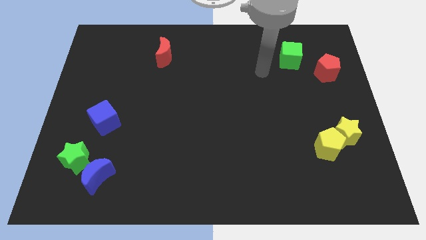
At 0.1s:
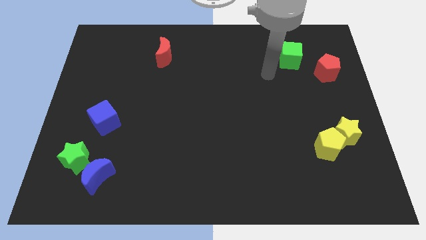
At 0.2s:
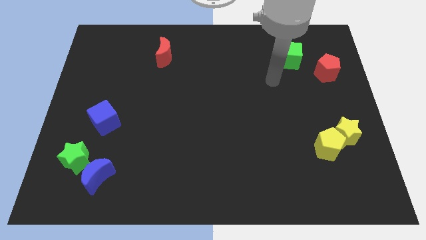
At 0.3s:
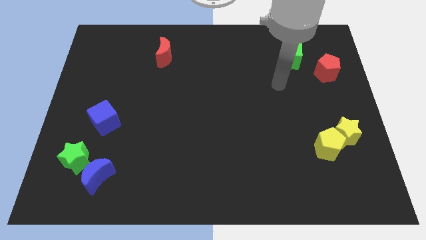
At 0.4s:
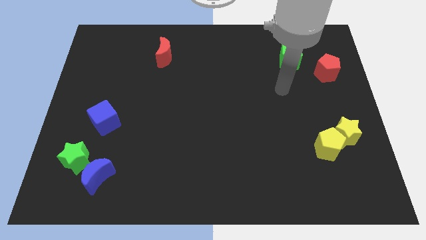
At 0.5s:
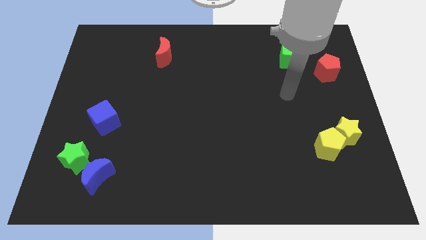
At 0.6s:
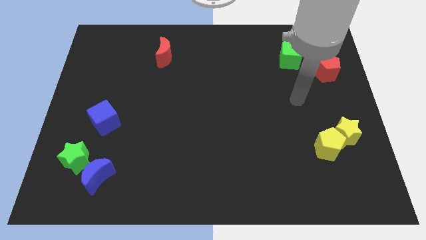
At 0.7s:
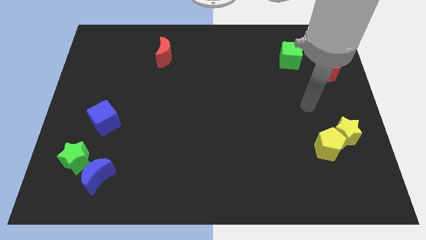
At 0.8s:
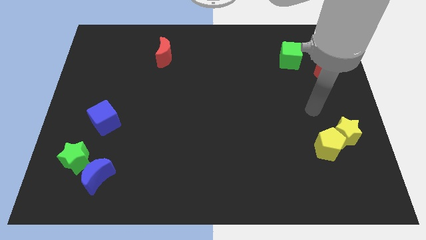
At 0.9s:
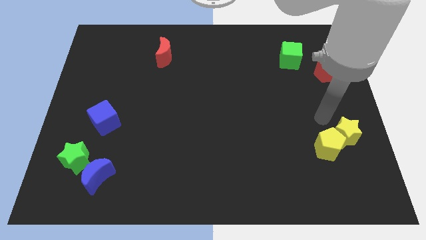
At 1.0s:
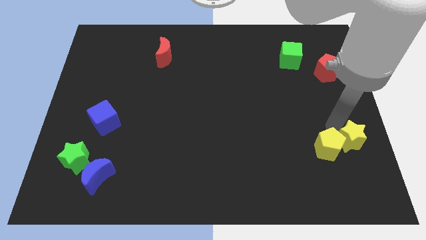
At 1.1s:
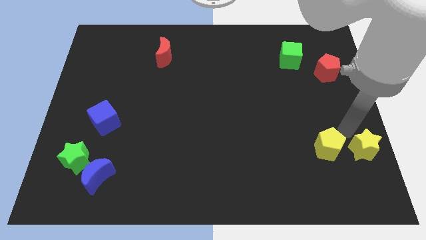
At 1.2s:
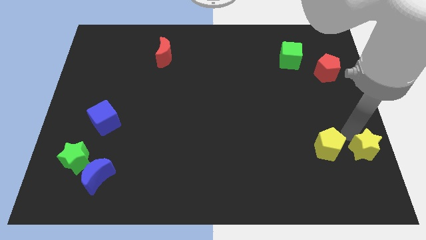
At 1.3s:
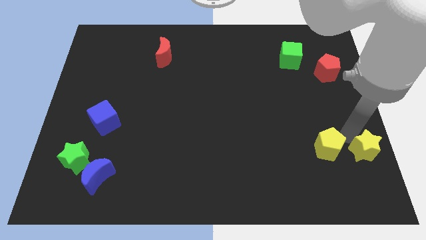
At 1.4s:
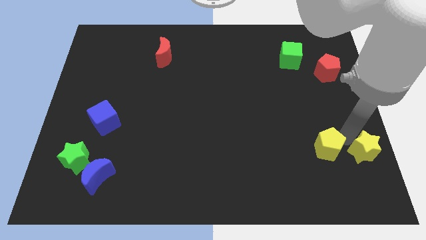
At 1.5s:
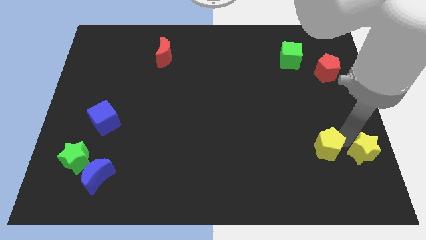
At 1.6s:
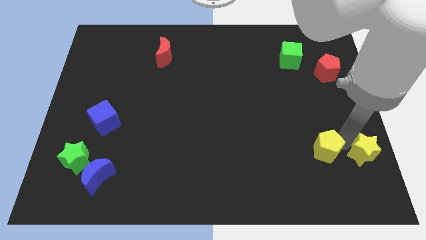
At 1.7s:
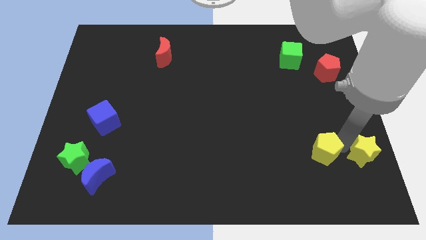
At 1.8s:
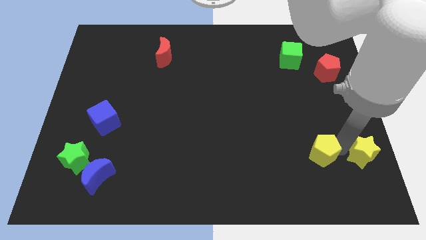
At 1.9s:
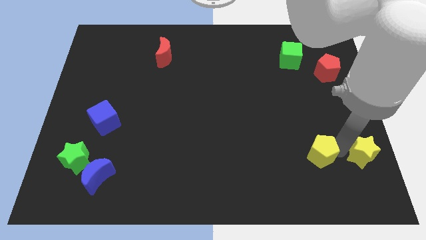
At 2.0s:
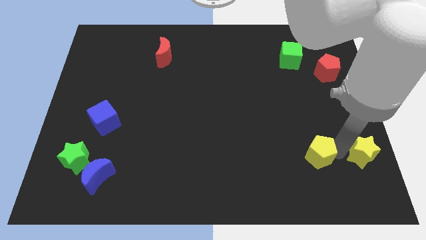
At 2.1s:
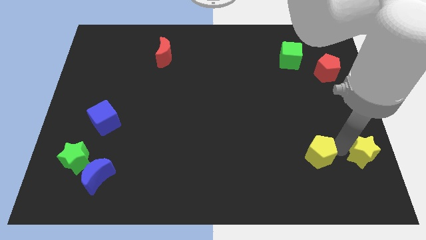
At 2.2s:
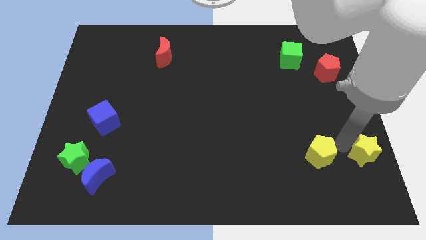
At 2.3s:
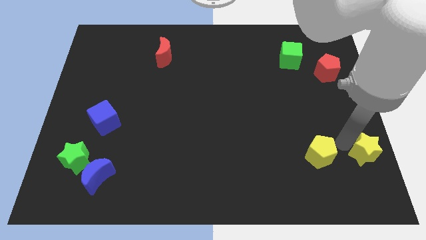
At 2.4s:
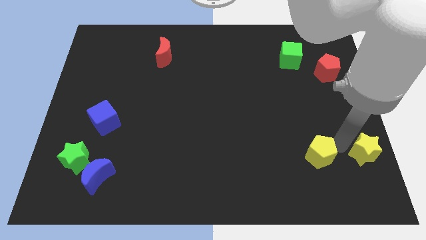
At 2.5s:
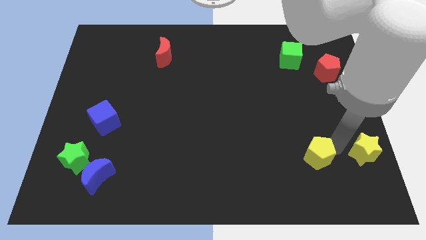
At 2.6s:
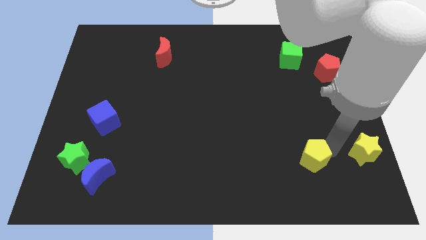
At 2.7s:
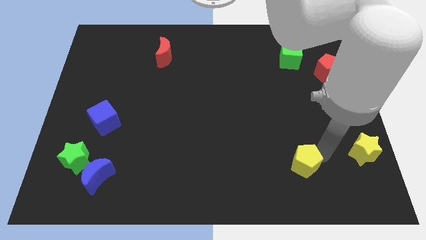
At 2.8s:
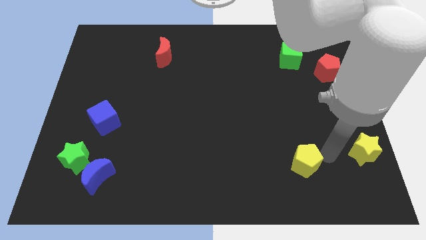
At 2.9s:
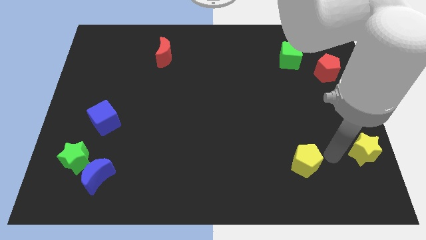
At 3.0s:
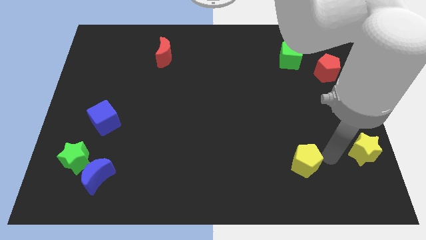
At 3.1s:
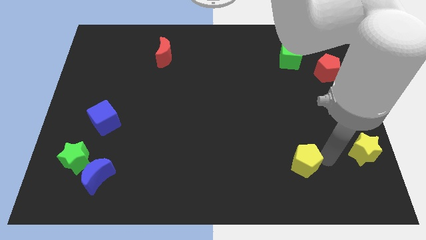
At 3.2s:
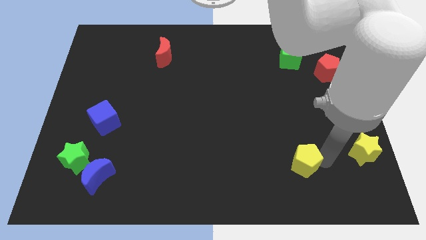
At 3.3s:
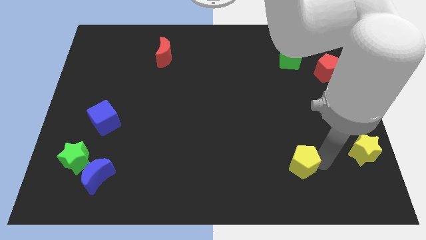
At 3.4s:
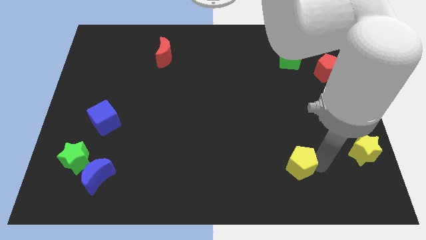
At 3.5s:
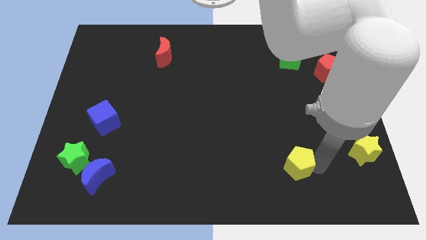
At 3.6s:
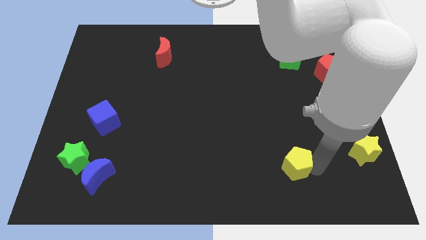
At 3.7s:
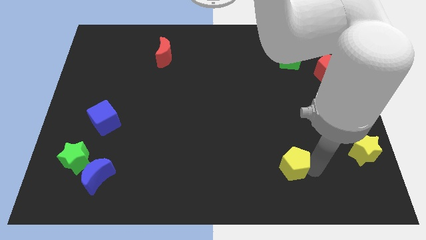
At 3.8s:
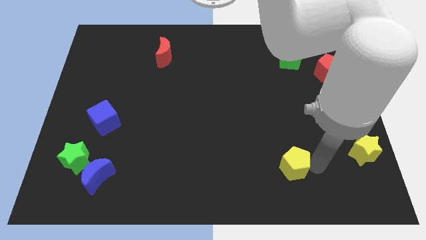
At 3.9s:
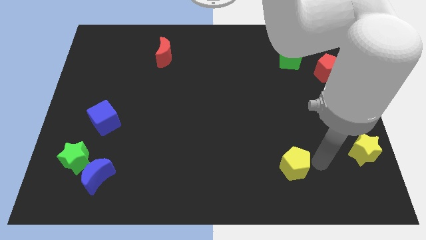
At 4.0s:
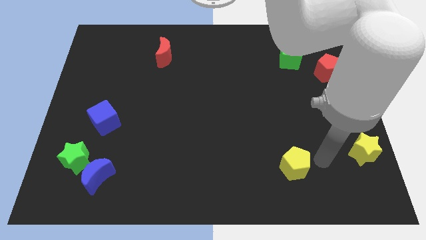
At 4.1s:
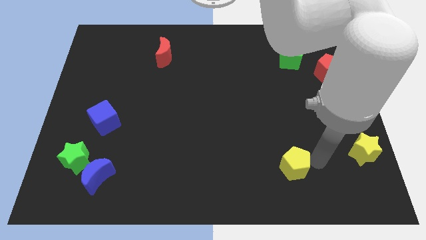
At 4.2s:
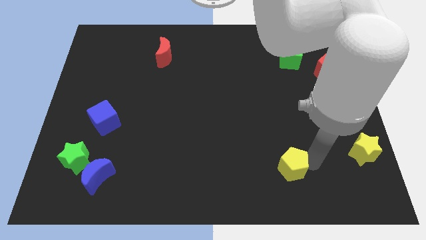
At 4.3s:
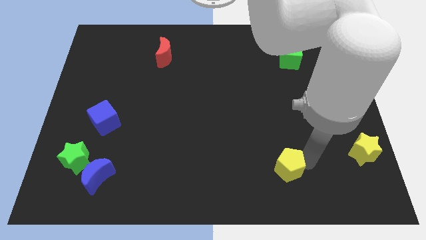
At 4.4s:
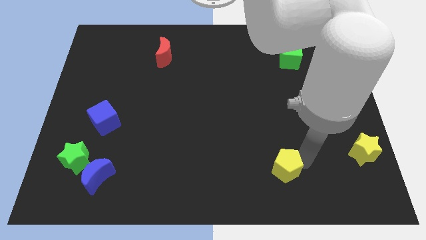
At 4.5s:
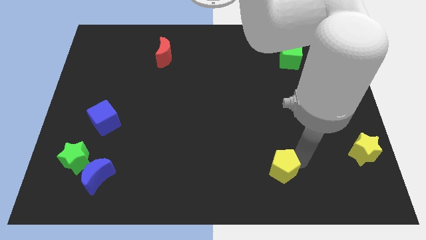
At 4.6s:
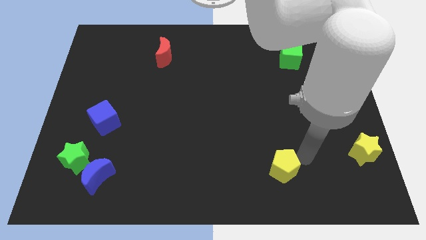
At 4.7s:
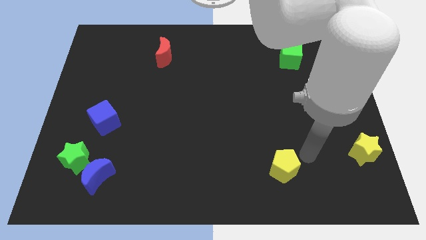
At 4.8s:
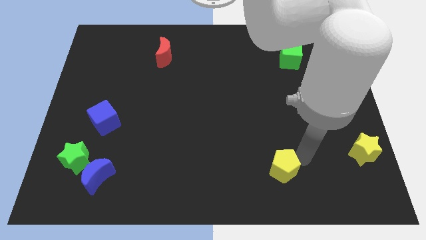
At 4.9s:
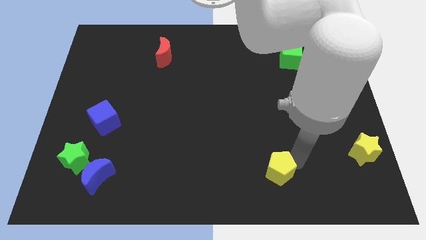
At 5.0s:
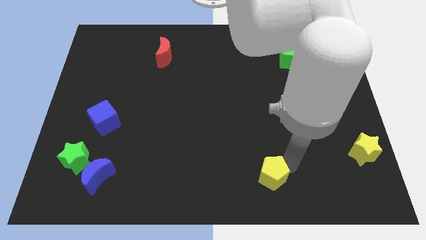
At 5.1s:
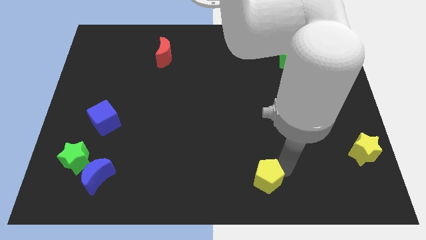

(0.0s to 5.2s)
slide the yellow pentagon to the bottom

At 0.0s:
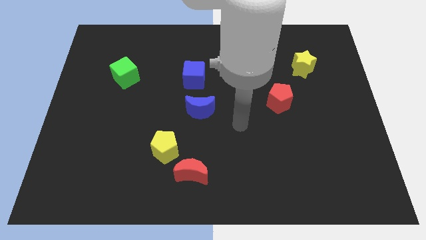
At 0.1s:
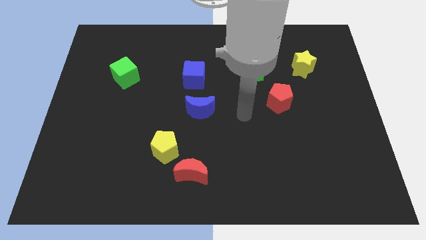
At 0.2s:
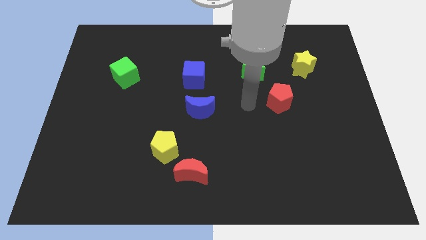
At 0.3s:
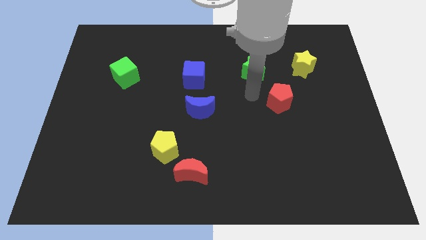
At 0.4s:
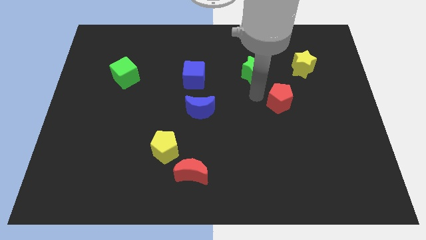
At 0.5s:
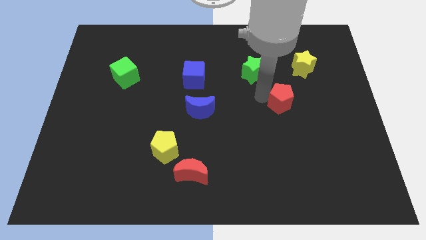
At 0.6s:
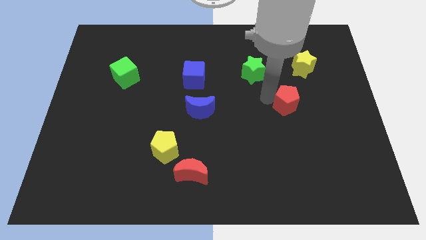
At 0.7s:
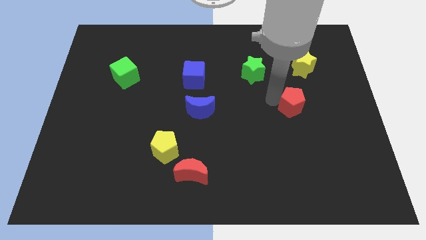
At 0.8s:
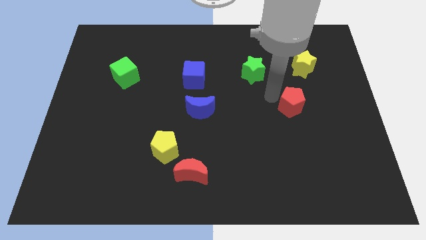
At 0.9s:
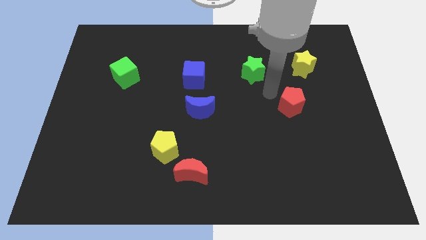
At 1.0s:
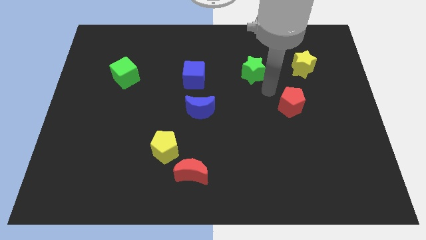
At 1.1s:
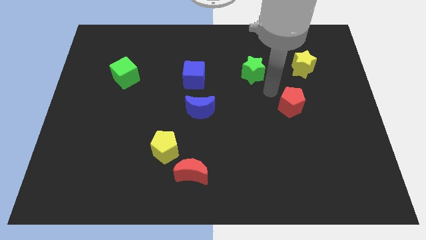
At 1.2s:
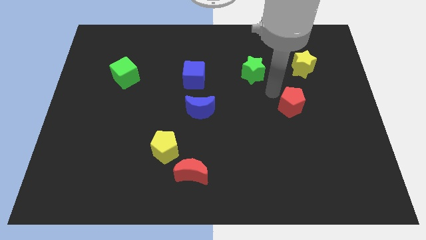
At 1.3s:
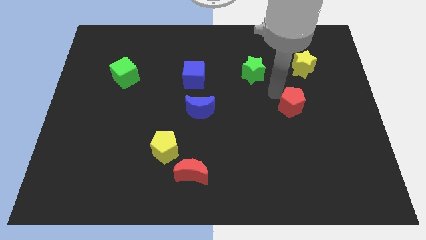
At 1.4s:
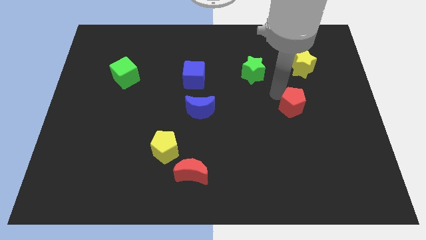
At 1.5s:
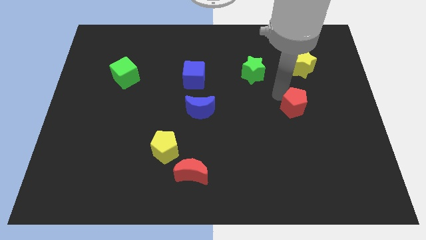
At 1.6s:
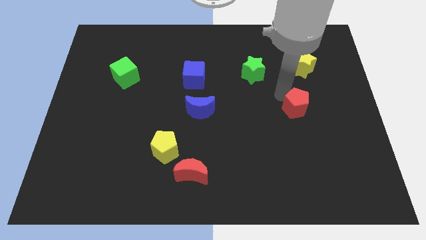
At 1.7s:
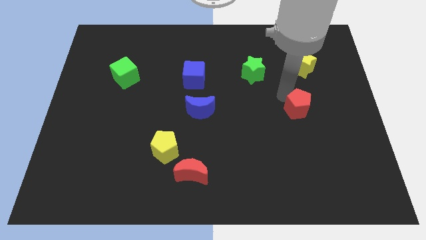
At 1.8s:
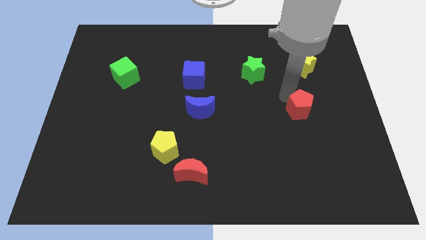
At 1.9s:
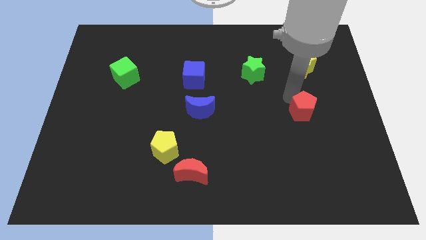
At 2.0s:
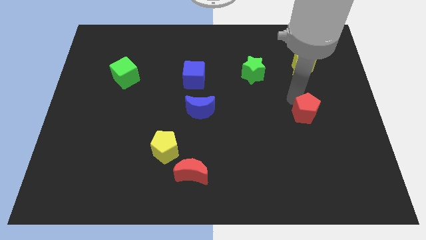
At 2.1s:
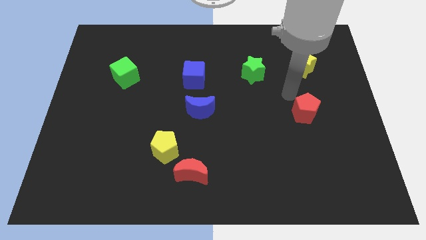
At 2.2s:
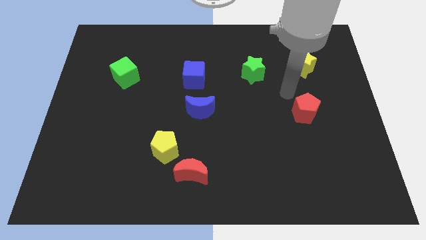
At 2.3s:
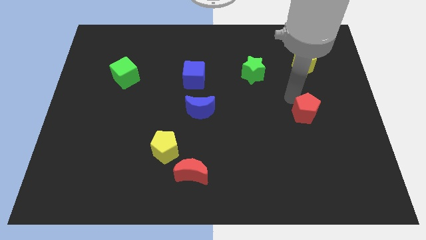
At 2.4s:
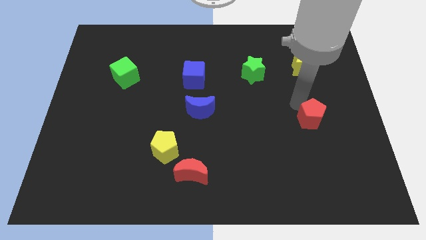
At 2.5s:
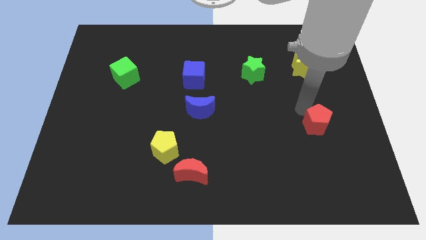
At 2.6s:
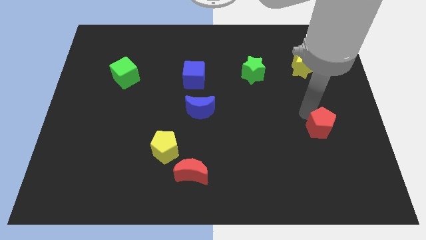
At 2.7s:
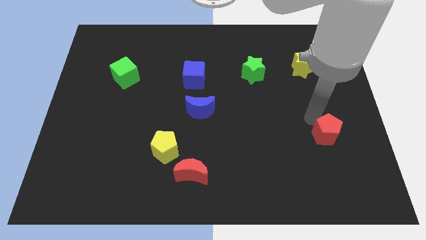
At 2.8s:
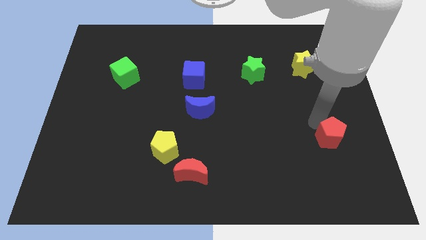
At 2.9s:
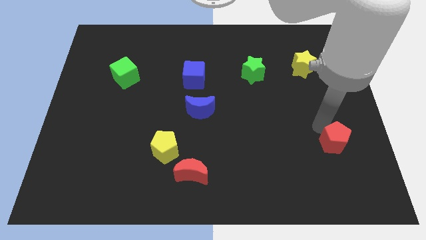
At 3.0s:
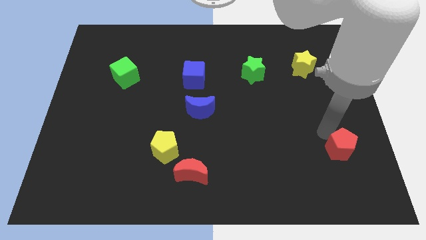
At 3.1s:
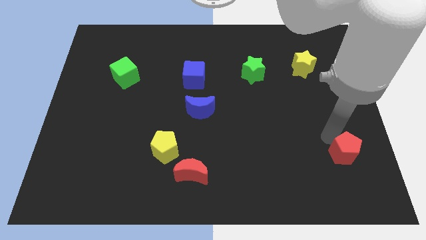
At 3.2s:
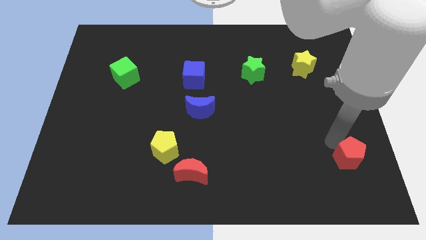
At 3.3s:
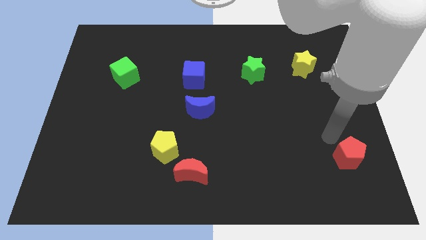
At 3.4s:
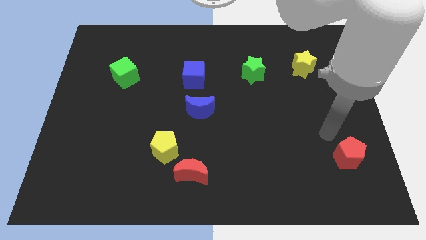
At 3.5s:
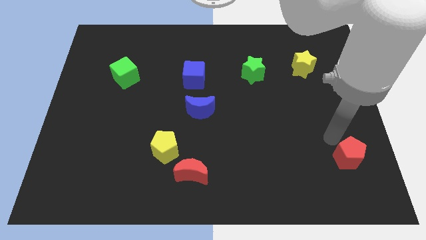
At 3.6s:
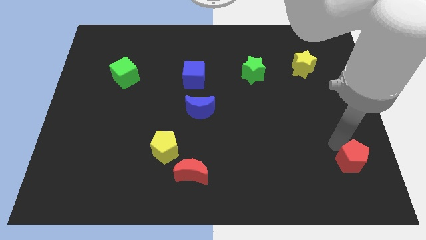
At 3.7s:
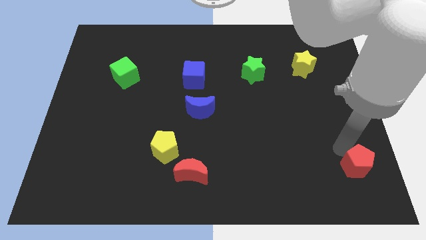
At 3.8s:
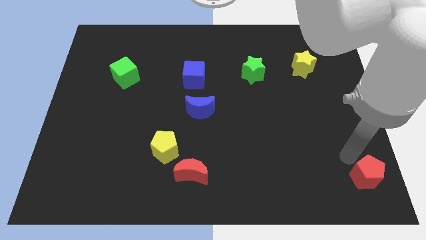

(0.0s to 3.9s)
put the red pentagon to the lower right corner
